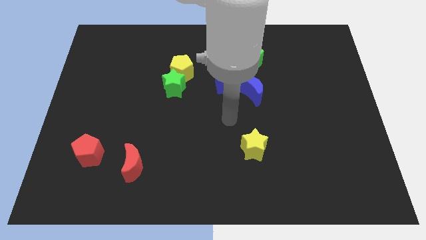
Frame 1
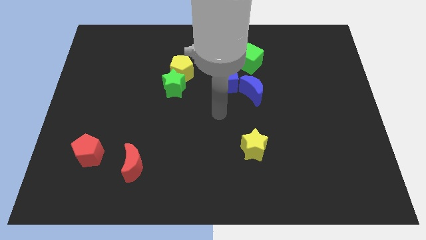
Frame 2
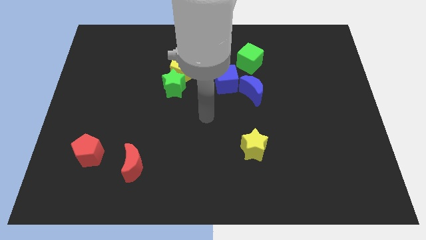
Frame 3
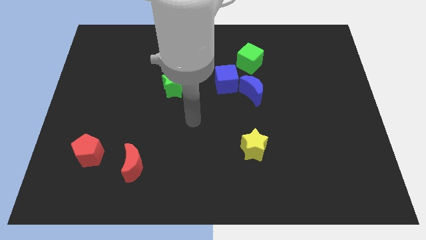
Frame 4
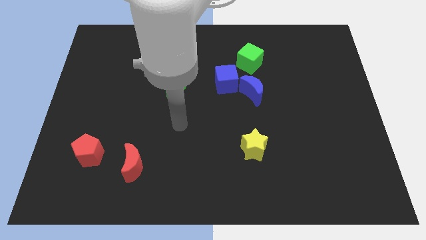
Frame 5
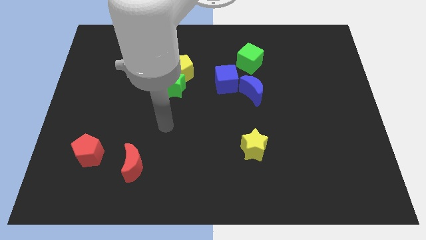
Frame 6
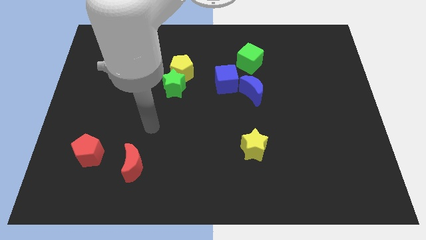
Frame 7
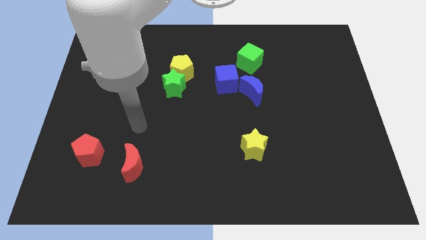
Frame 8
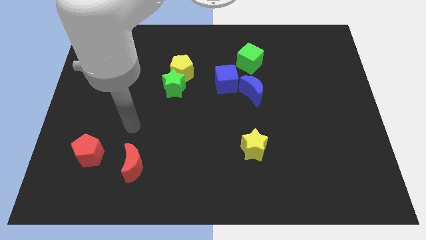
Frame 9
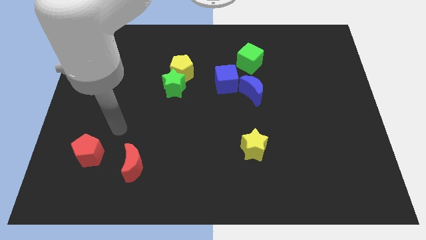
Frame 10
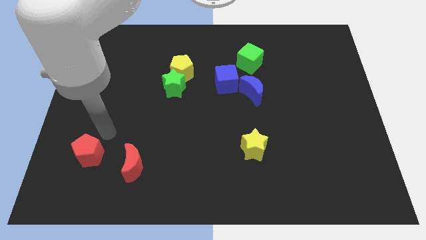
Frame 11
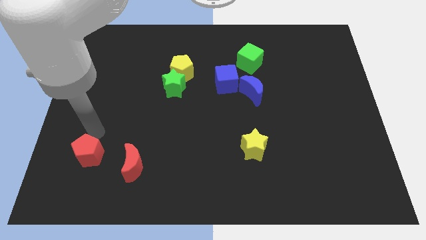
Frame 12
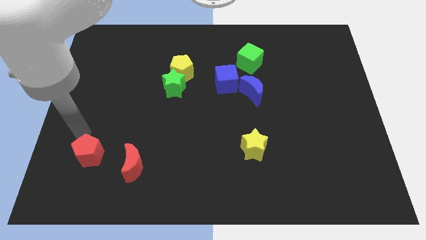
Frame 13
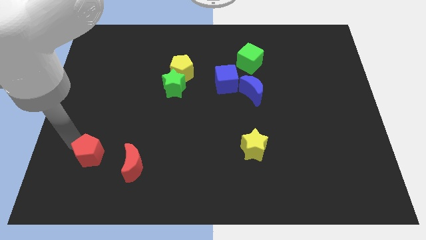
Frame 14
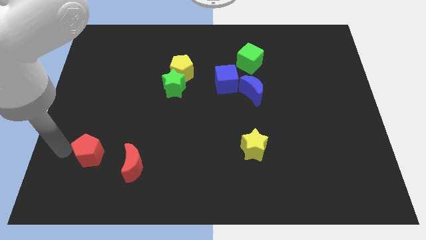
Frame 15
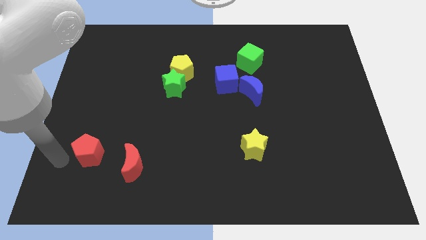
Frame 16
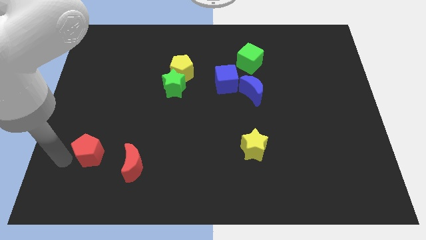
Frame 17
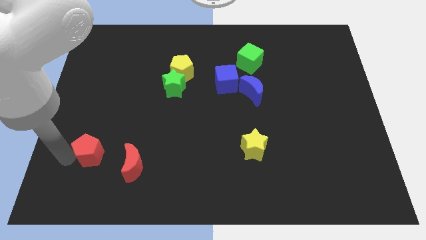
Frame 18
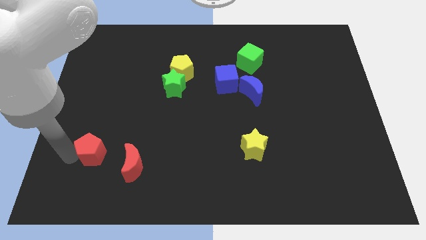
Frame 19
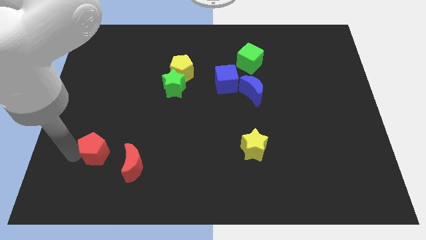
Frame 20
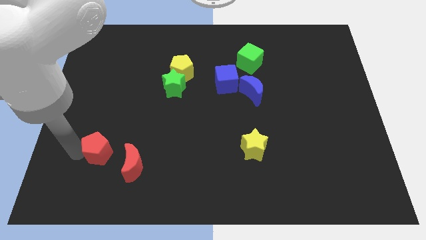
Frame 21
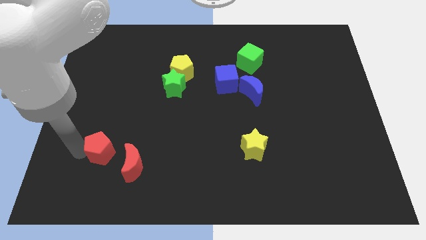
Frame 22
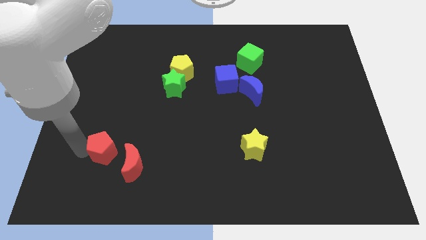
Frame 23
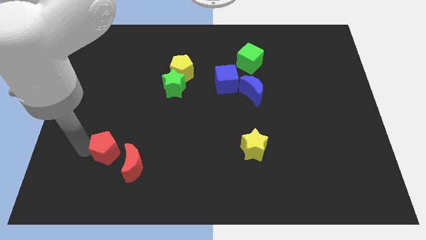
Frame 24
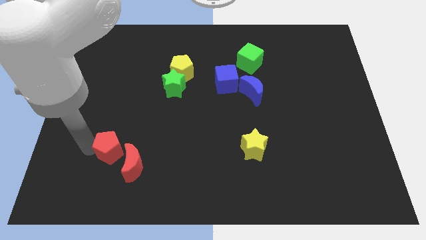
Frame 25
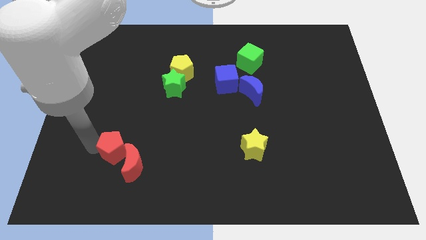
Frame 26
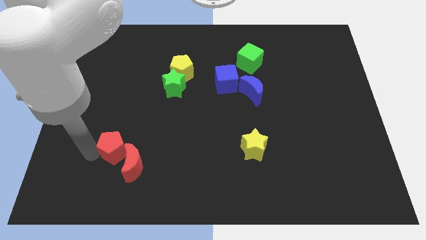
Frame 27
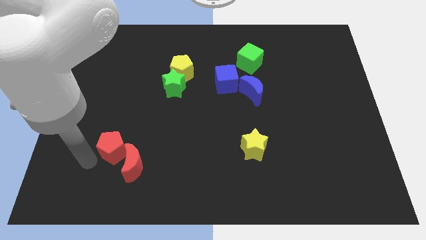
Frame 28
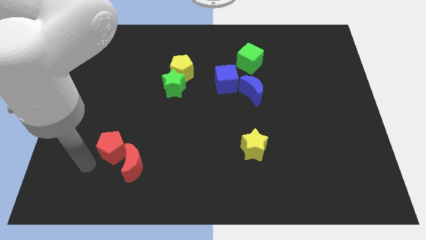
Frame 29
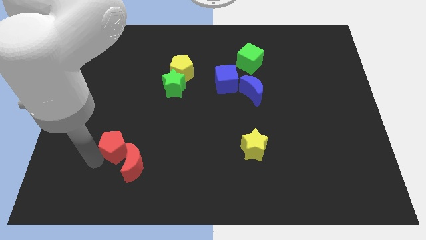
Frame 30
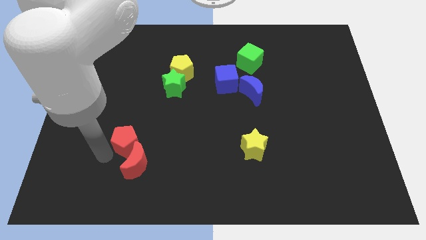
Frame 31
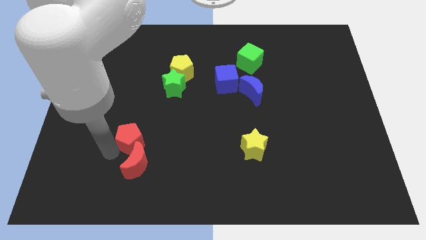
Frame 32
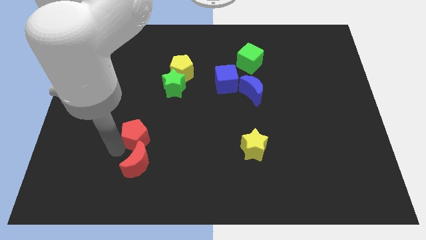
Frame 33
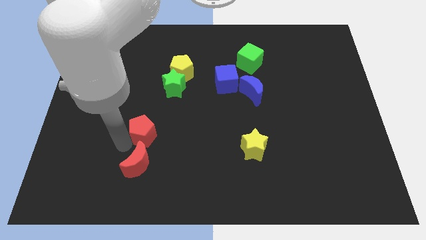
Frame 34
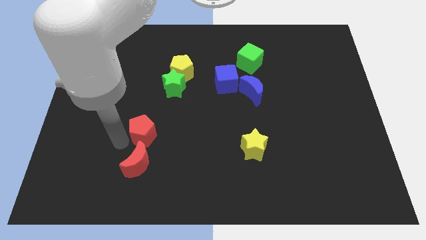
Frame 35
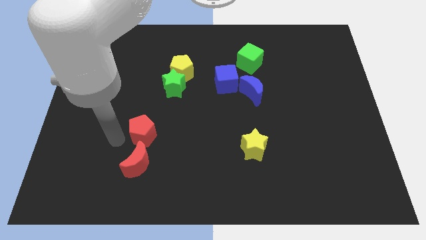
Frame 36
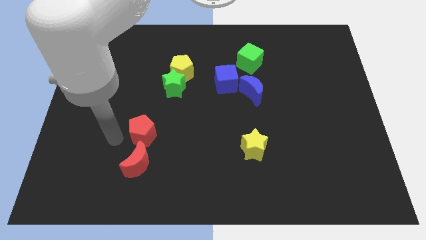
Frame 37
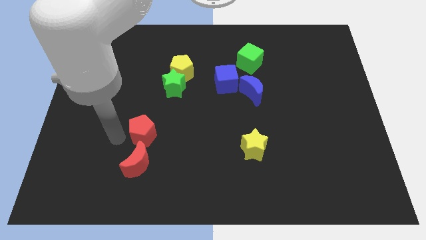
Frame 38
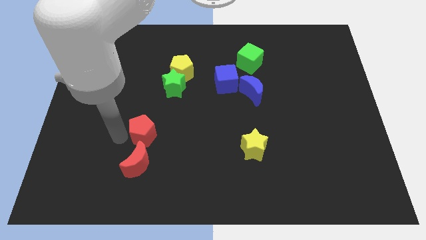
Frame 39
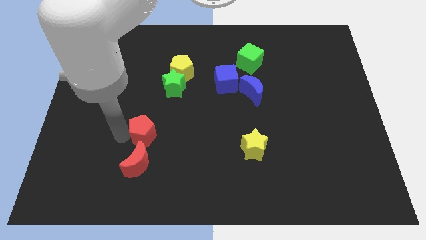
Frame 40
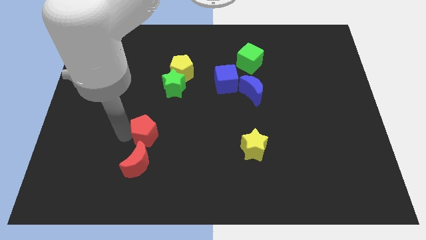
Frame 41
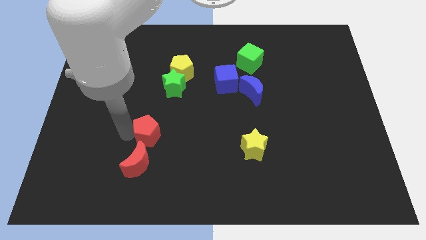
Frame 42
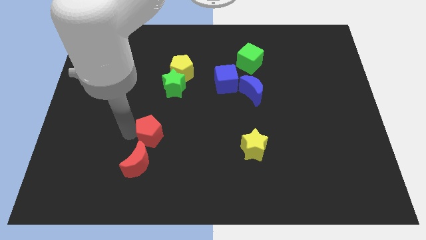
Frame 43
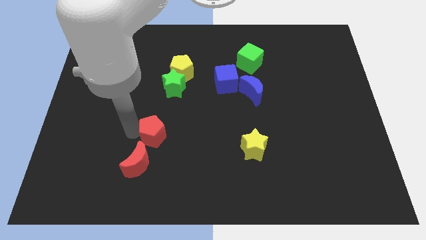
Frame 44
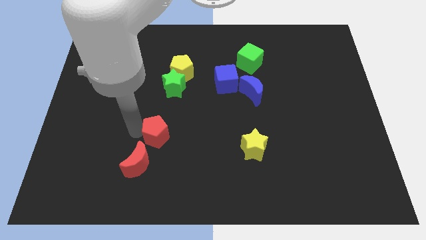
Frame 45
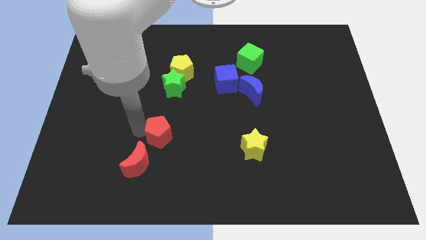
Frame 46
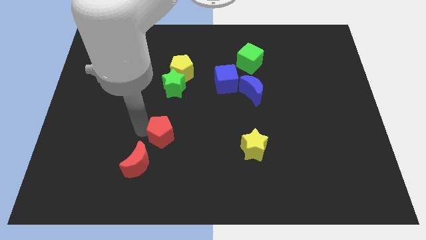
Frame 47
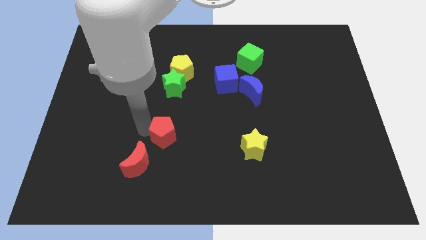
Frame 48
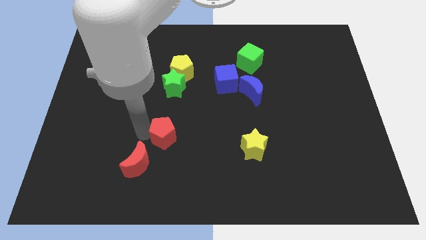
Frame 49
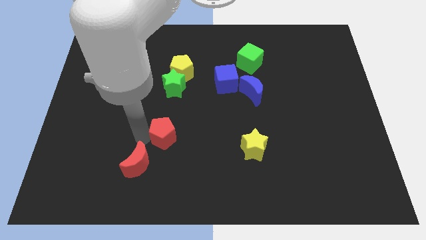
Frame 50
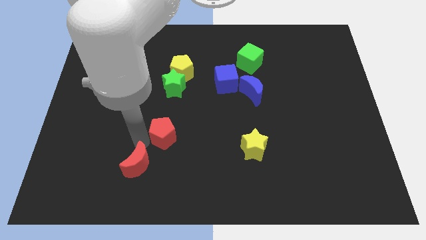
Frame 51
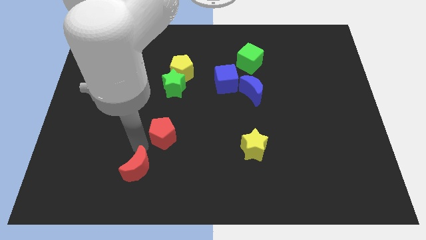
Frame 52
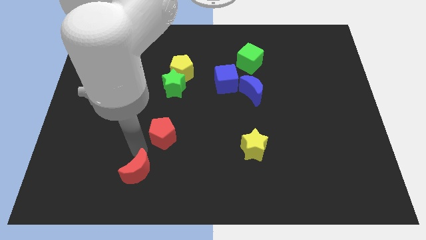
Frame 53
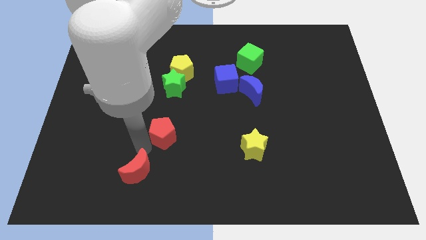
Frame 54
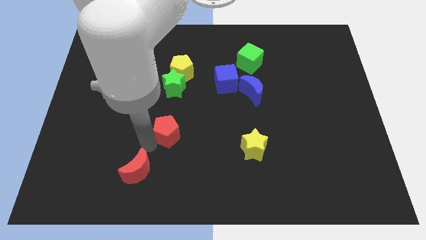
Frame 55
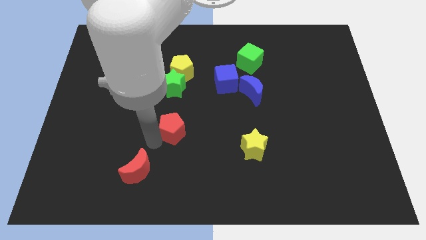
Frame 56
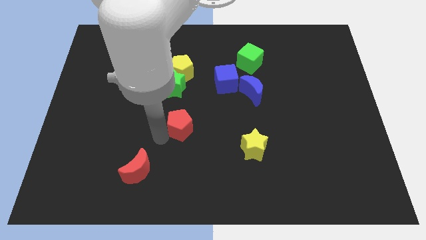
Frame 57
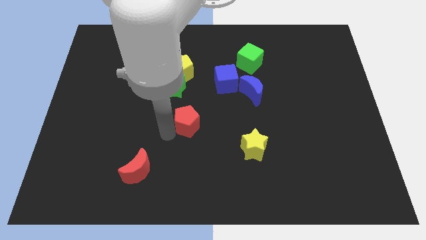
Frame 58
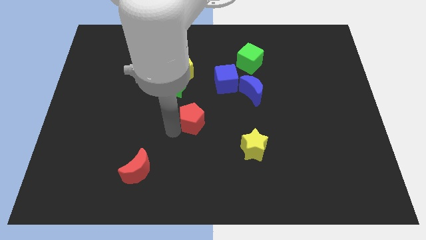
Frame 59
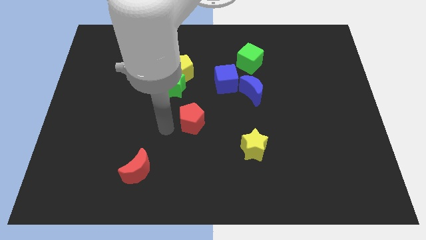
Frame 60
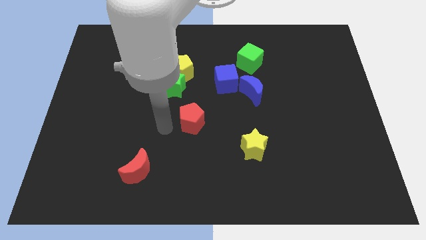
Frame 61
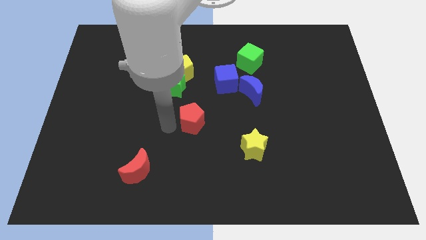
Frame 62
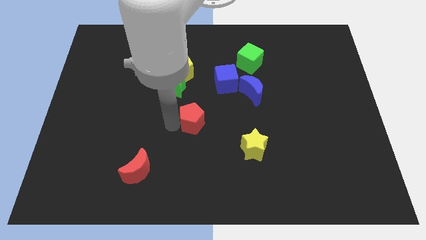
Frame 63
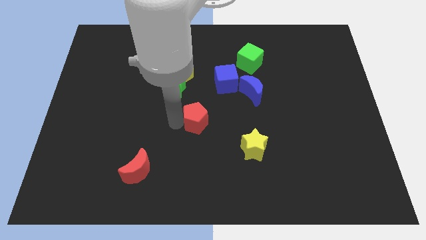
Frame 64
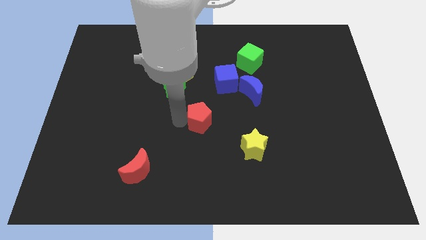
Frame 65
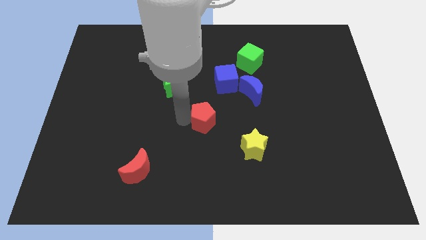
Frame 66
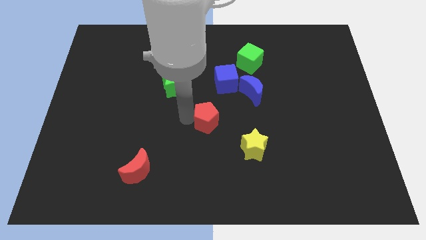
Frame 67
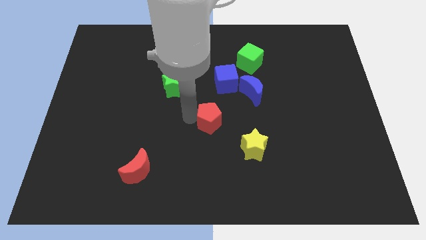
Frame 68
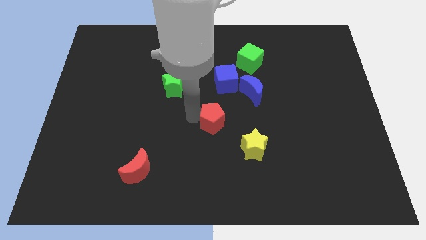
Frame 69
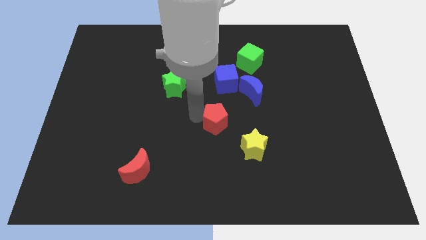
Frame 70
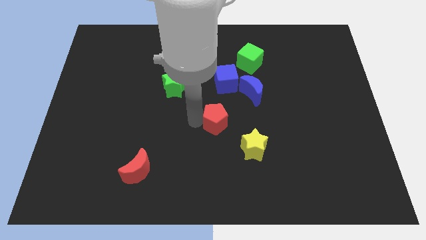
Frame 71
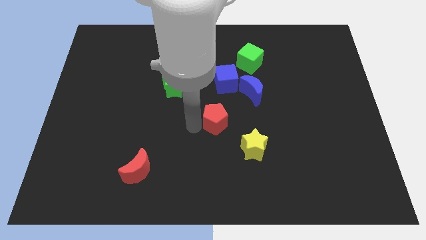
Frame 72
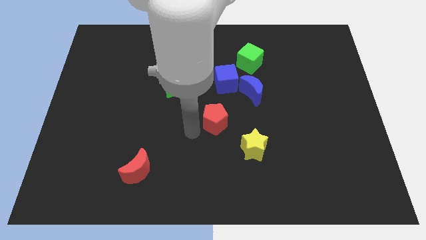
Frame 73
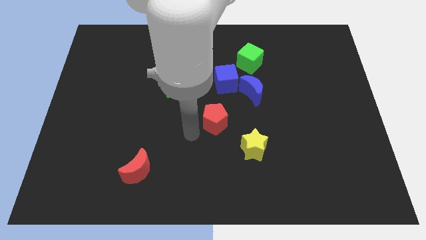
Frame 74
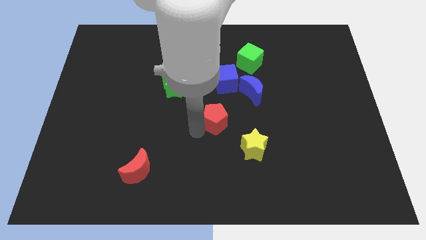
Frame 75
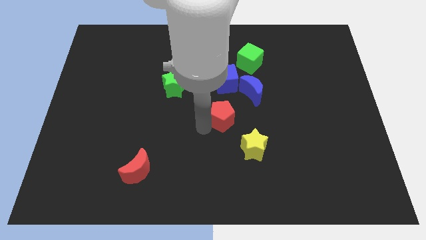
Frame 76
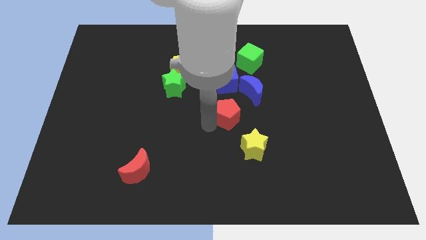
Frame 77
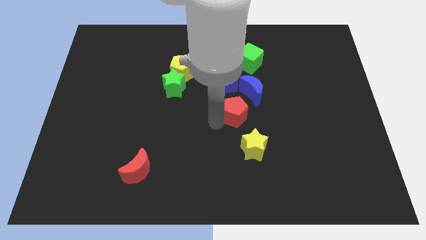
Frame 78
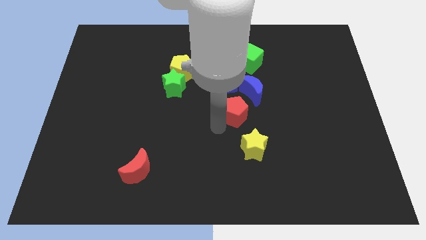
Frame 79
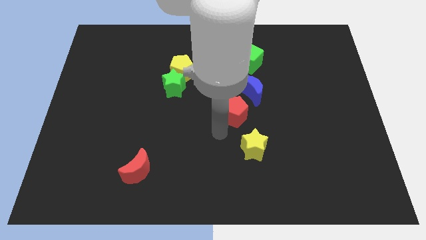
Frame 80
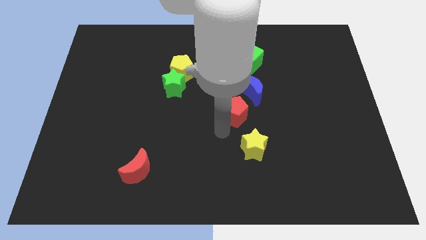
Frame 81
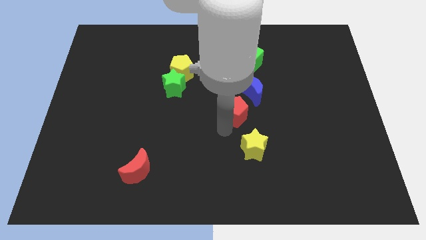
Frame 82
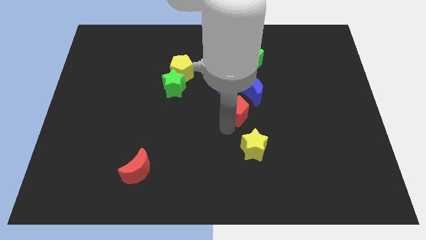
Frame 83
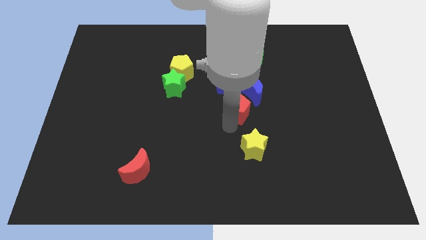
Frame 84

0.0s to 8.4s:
push the red pentagon to the bottom right side of the blue cube
